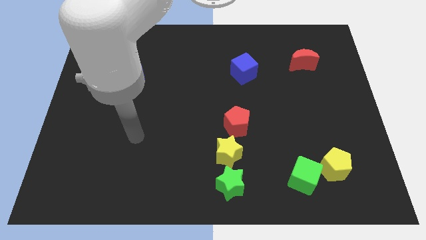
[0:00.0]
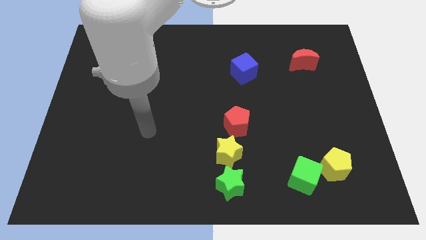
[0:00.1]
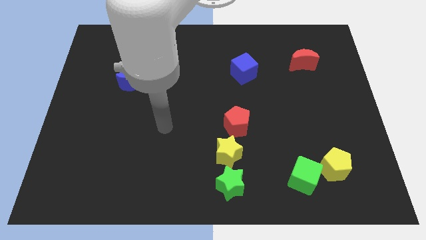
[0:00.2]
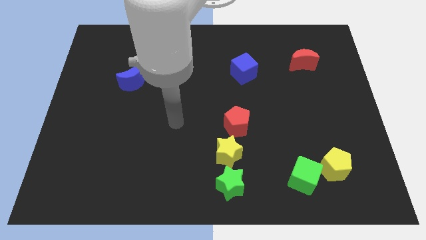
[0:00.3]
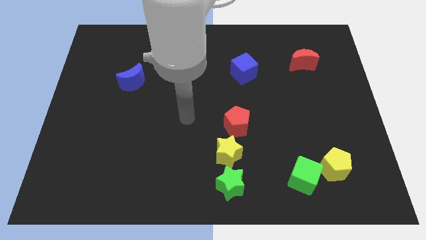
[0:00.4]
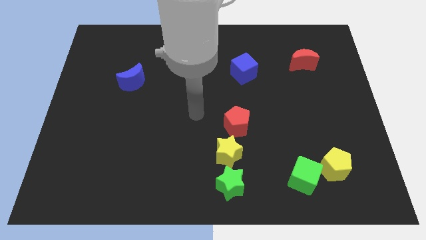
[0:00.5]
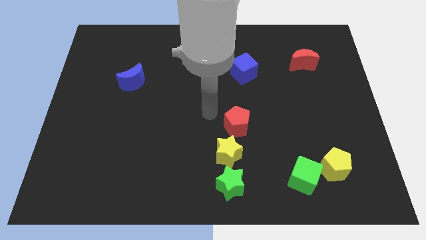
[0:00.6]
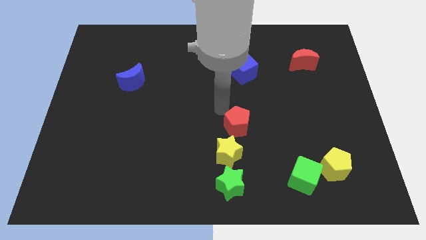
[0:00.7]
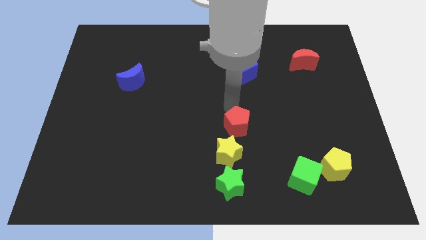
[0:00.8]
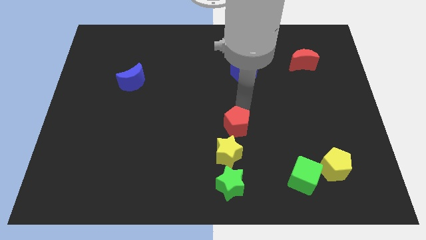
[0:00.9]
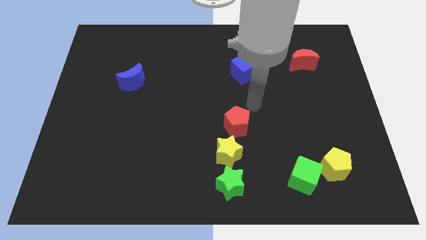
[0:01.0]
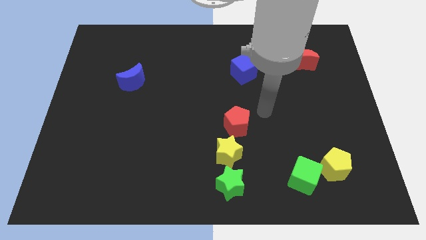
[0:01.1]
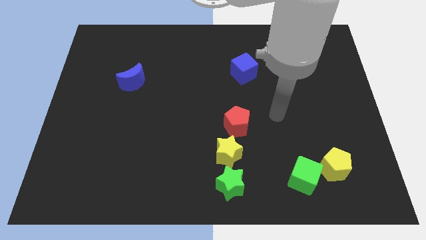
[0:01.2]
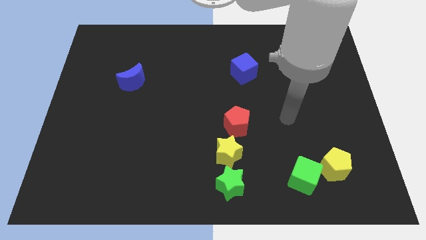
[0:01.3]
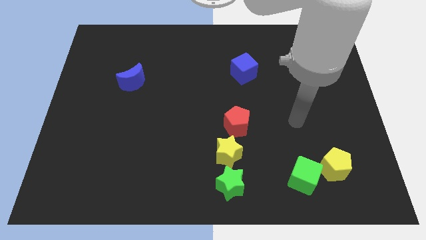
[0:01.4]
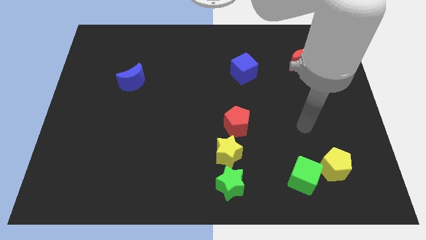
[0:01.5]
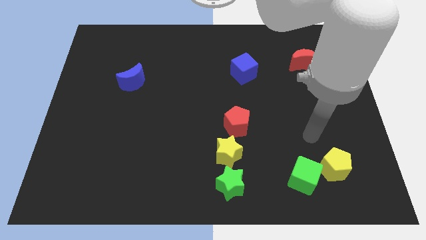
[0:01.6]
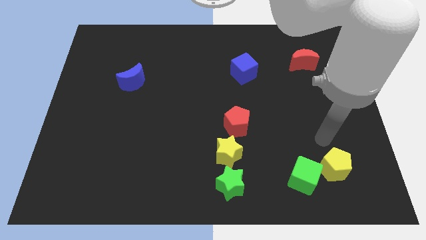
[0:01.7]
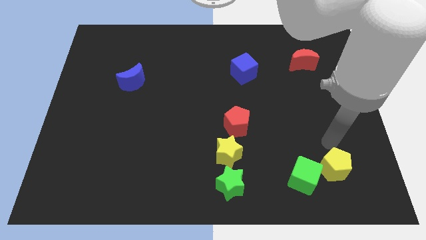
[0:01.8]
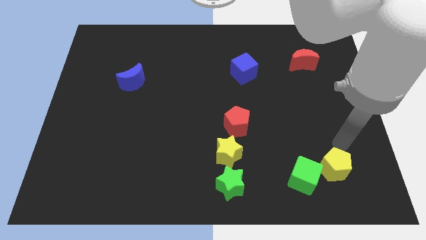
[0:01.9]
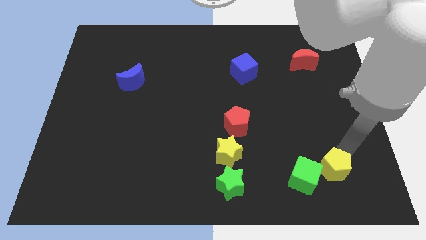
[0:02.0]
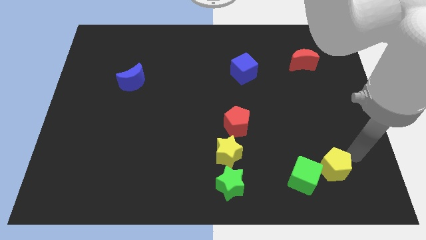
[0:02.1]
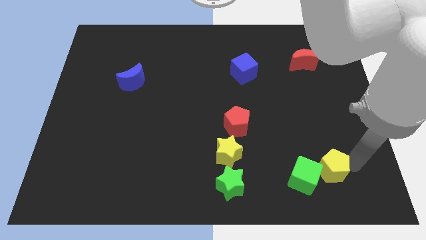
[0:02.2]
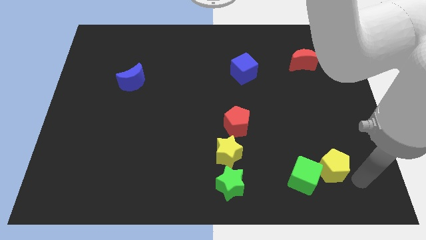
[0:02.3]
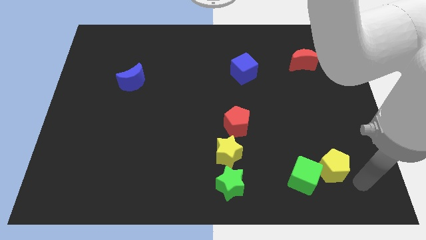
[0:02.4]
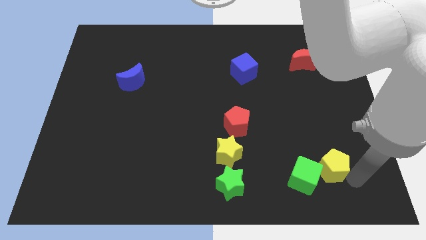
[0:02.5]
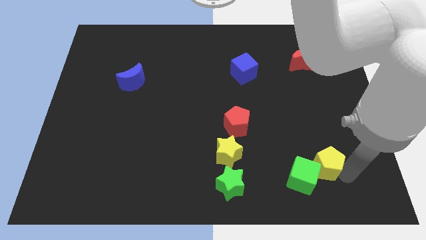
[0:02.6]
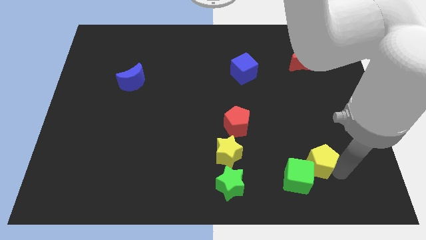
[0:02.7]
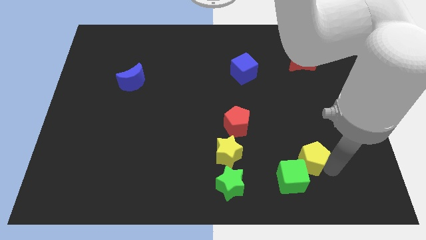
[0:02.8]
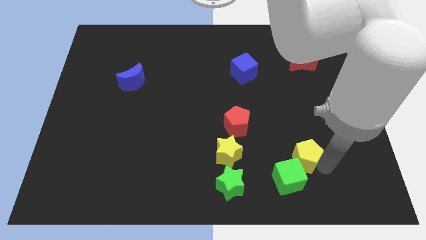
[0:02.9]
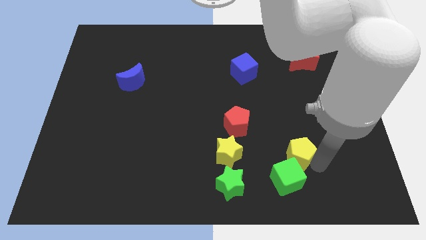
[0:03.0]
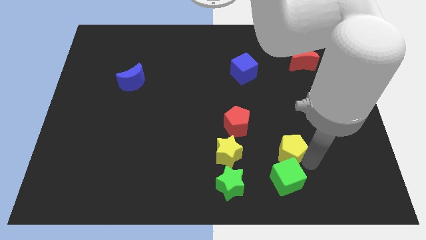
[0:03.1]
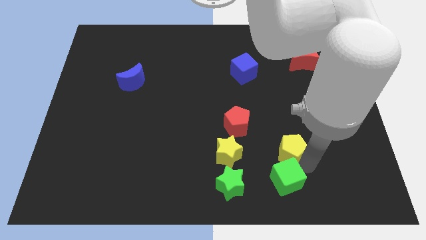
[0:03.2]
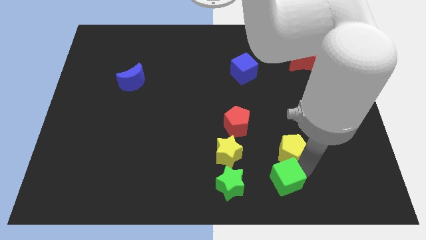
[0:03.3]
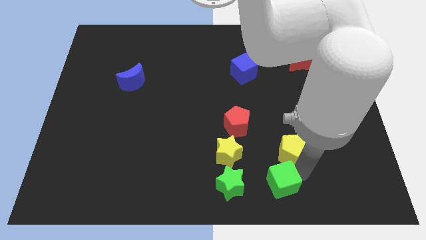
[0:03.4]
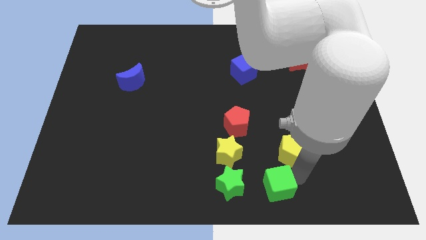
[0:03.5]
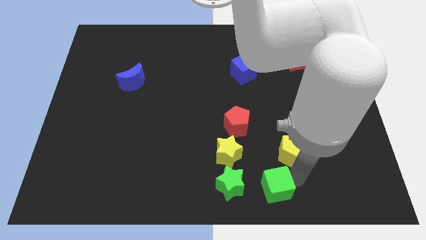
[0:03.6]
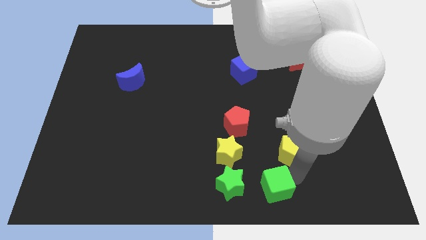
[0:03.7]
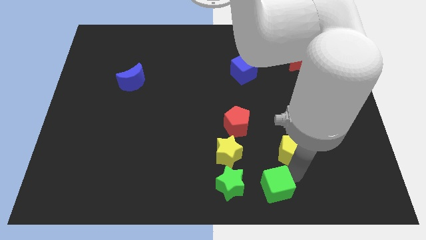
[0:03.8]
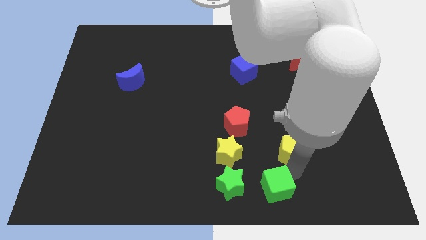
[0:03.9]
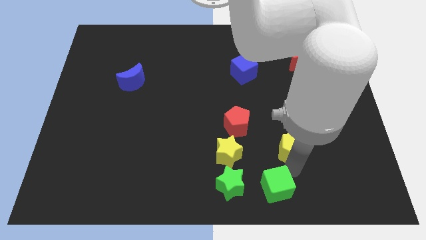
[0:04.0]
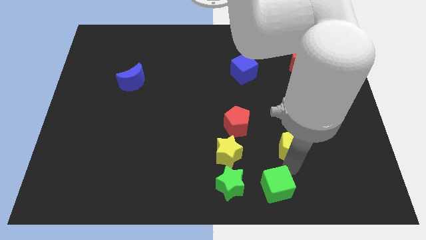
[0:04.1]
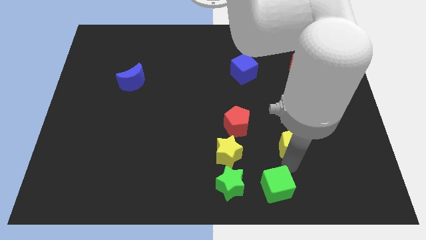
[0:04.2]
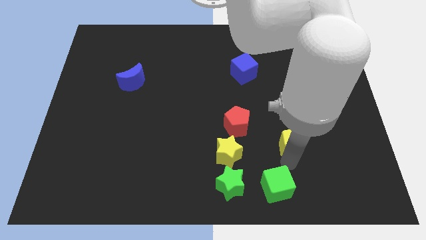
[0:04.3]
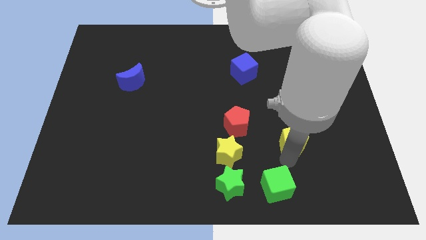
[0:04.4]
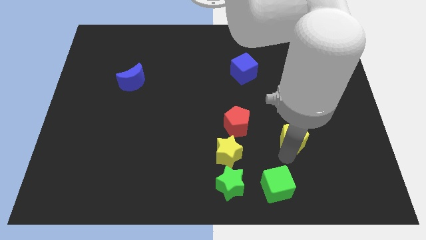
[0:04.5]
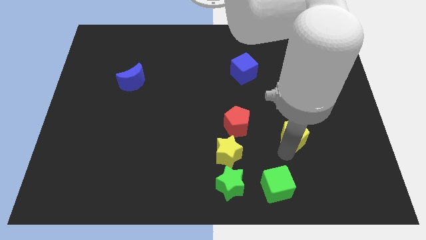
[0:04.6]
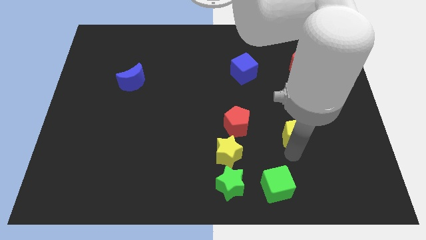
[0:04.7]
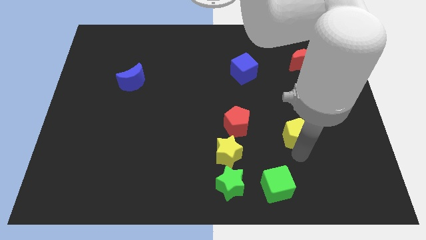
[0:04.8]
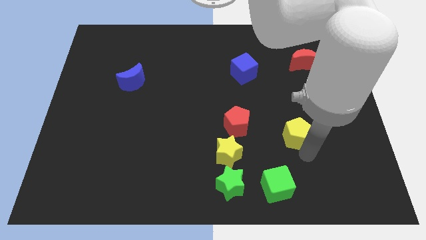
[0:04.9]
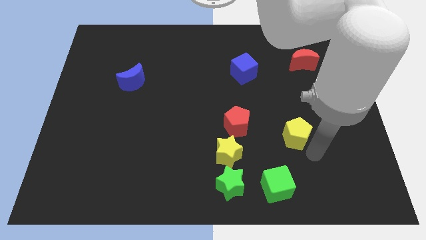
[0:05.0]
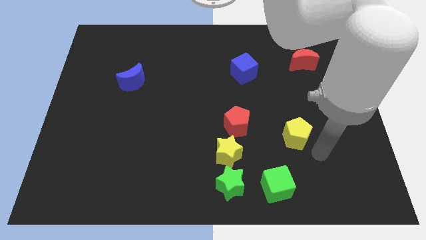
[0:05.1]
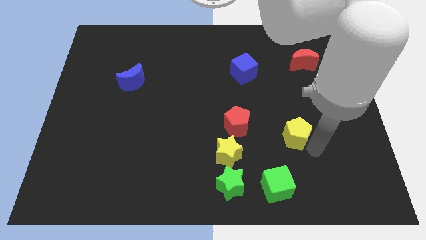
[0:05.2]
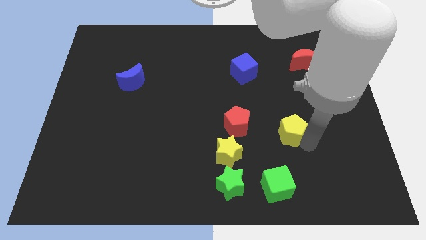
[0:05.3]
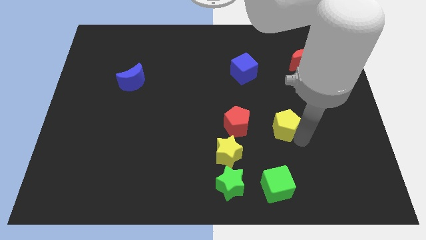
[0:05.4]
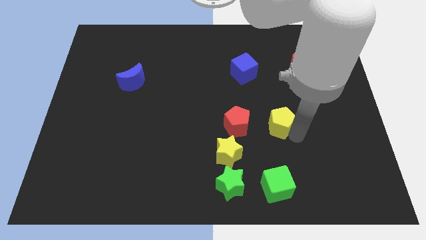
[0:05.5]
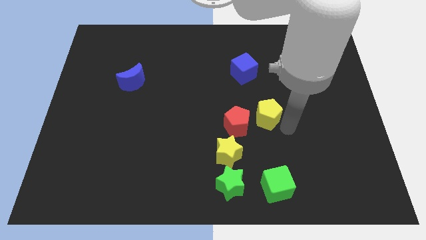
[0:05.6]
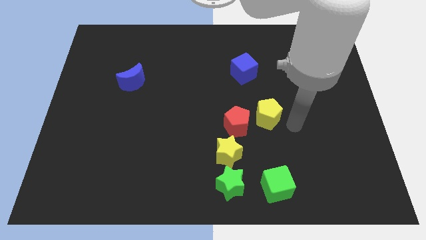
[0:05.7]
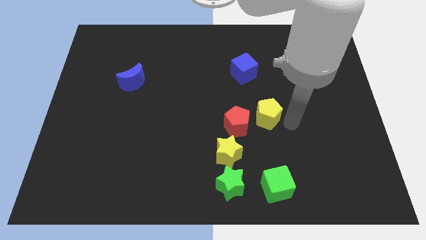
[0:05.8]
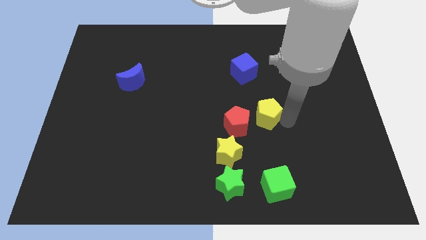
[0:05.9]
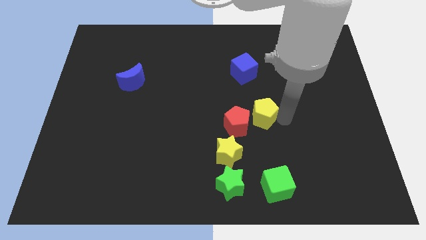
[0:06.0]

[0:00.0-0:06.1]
move the yellow pentagon to the center
